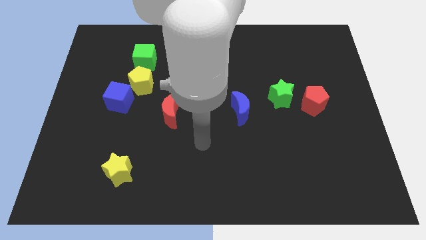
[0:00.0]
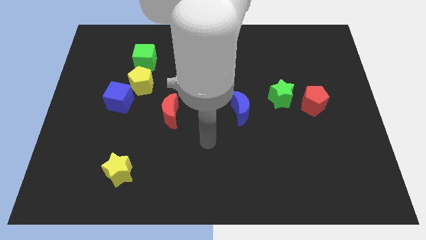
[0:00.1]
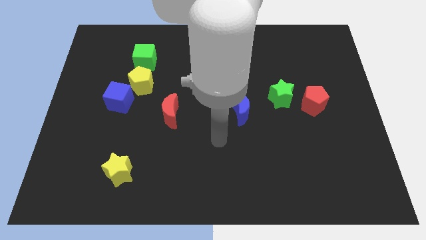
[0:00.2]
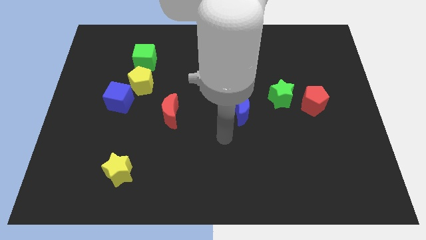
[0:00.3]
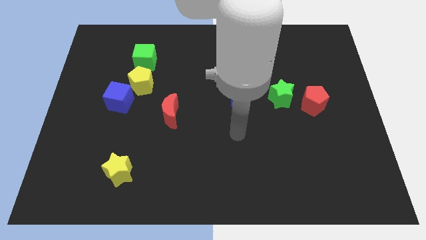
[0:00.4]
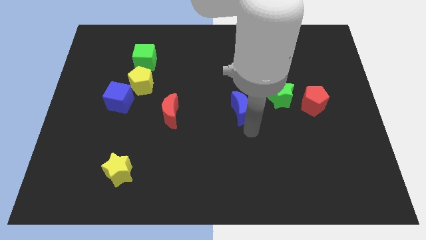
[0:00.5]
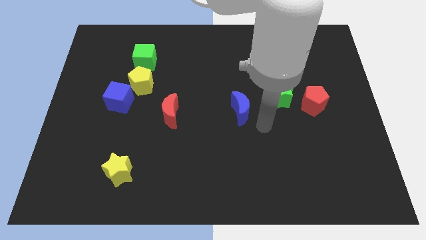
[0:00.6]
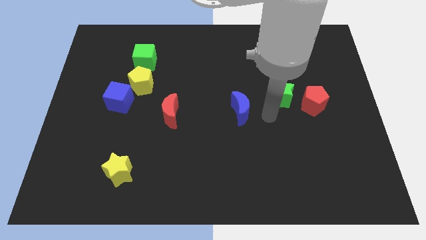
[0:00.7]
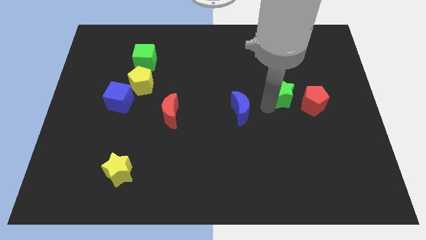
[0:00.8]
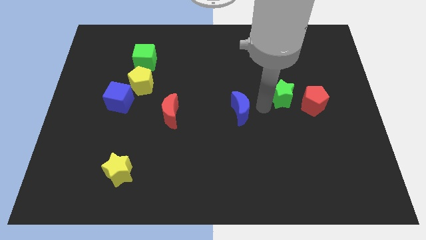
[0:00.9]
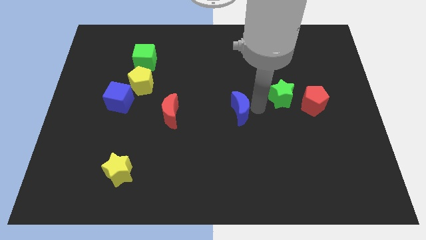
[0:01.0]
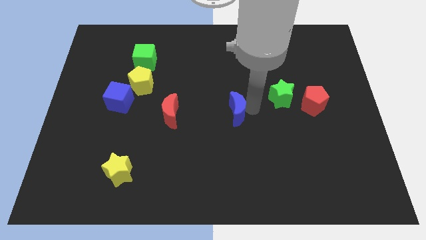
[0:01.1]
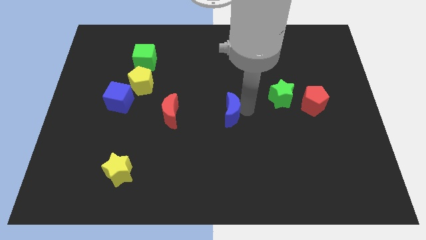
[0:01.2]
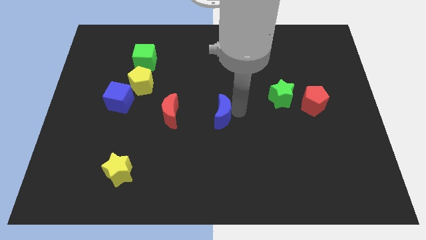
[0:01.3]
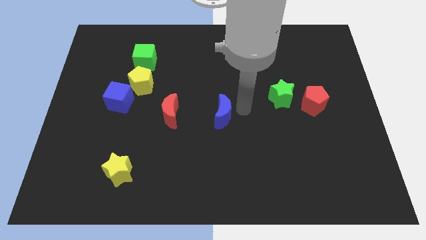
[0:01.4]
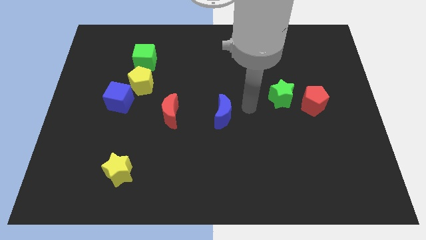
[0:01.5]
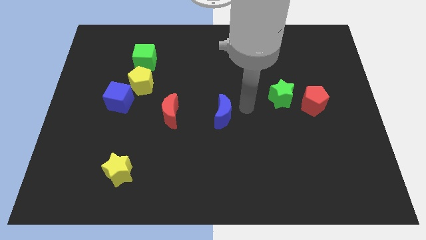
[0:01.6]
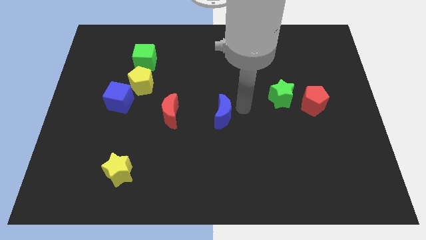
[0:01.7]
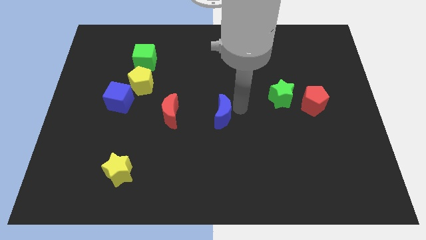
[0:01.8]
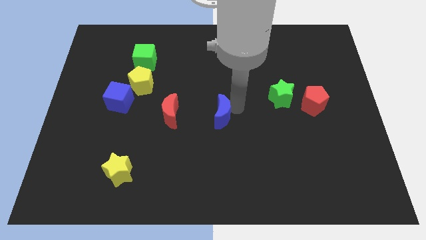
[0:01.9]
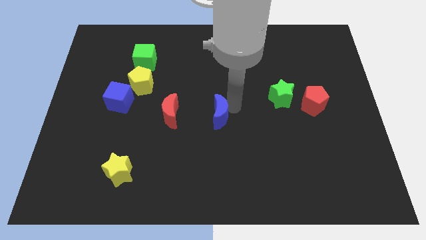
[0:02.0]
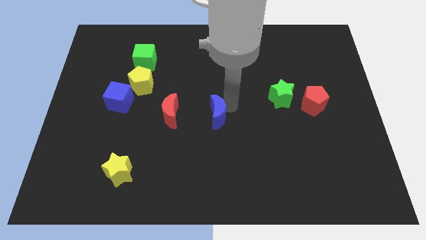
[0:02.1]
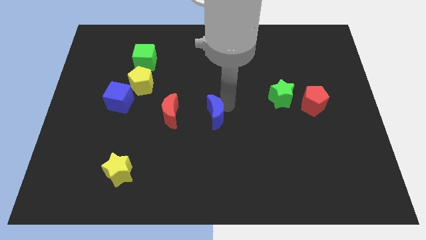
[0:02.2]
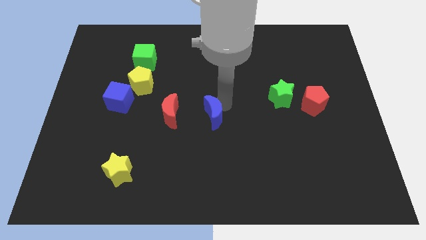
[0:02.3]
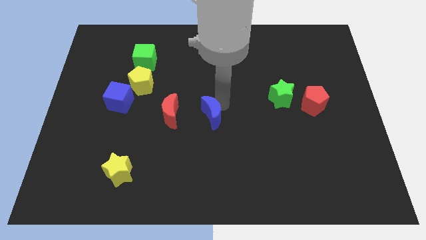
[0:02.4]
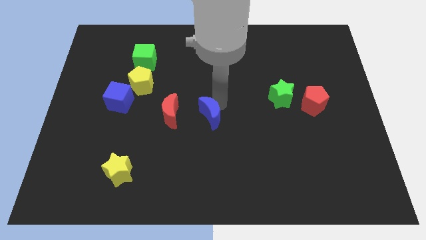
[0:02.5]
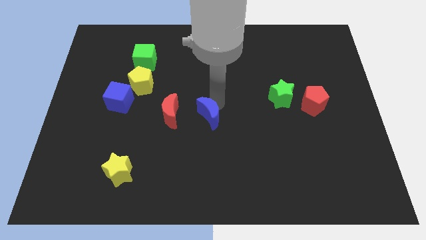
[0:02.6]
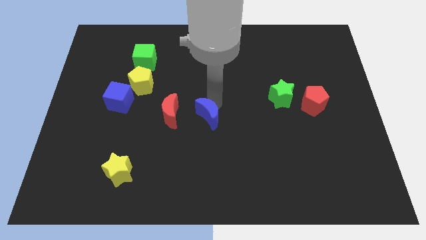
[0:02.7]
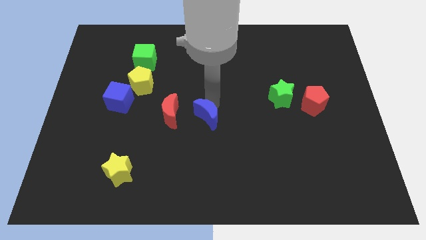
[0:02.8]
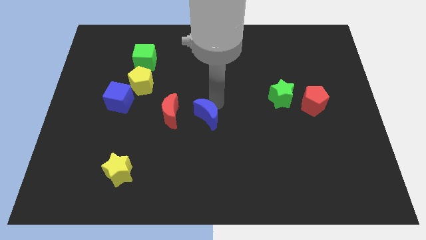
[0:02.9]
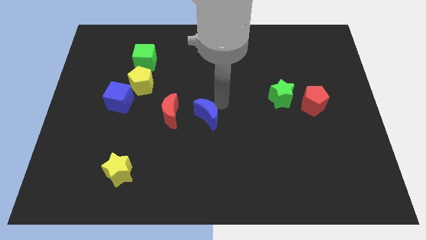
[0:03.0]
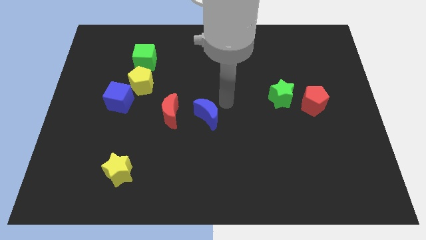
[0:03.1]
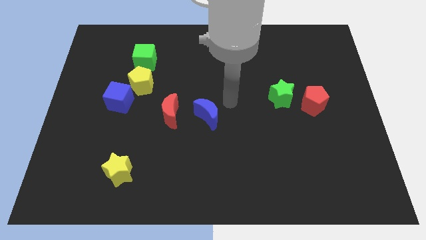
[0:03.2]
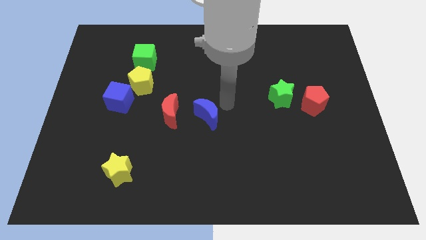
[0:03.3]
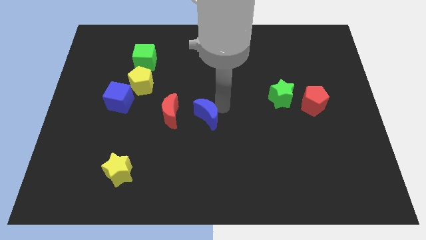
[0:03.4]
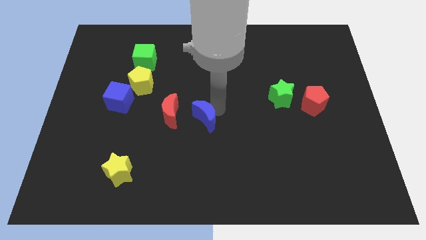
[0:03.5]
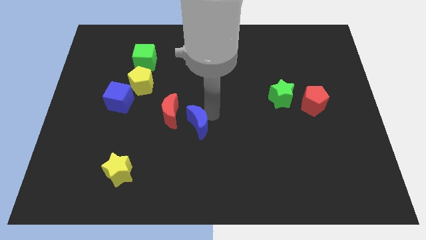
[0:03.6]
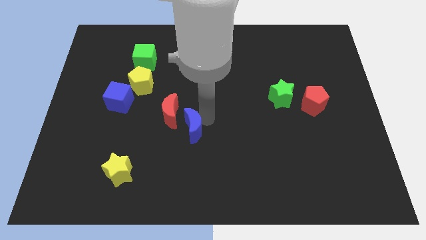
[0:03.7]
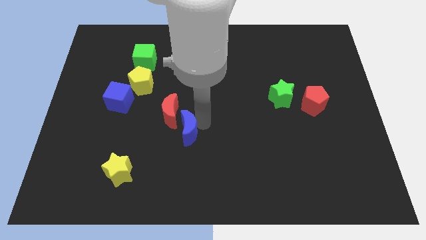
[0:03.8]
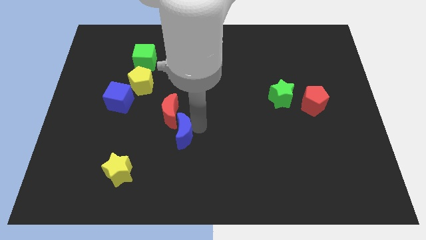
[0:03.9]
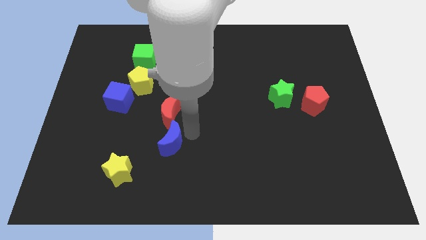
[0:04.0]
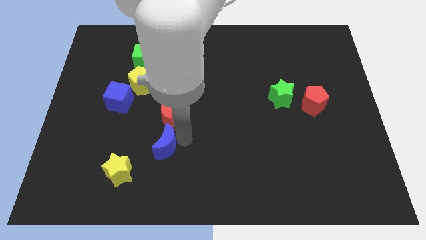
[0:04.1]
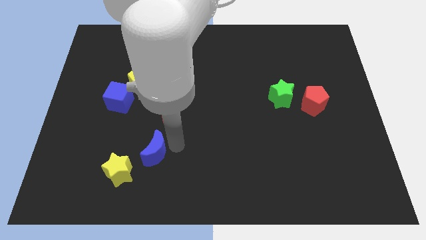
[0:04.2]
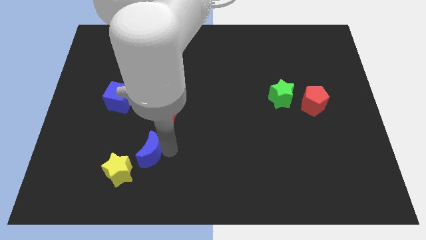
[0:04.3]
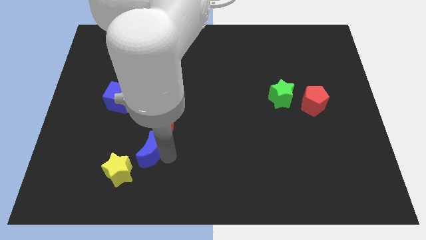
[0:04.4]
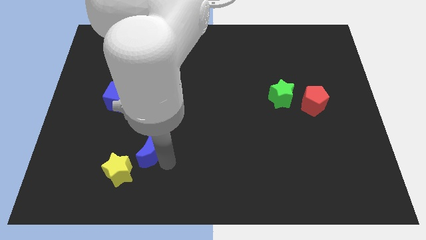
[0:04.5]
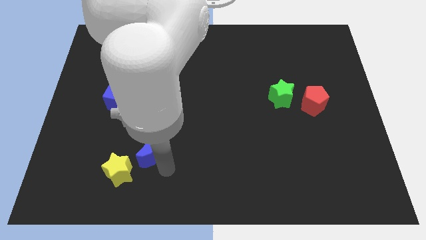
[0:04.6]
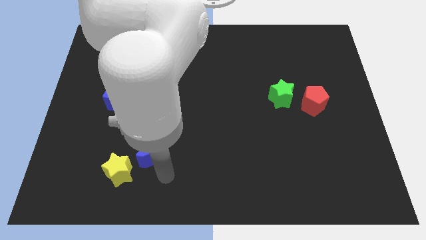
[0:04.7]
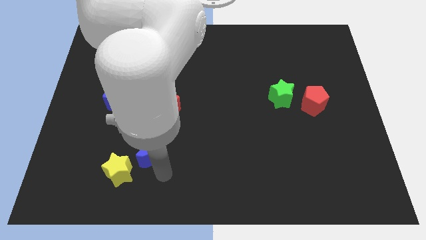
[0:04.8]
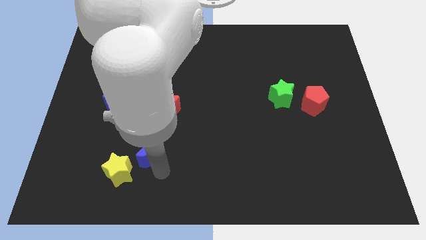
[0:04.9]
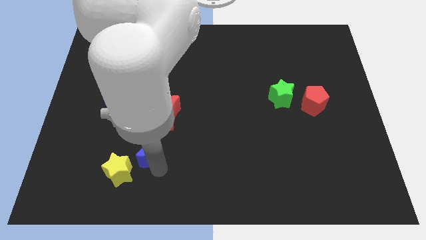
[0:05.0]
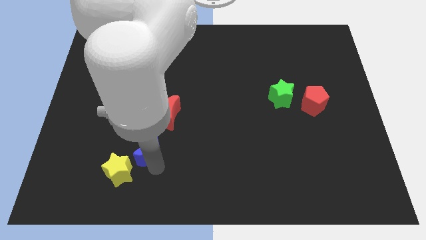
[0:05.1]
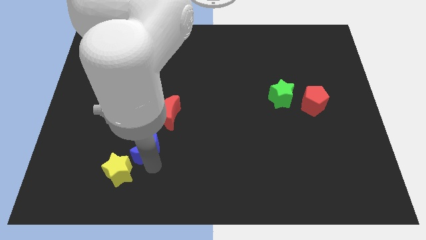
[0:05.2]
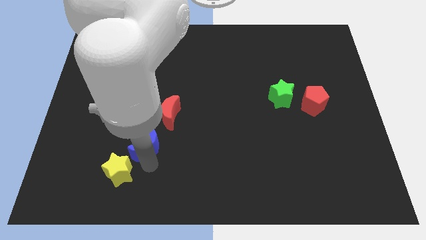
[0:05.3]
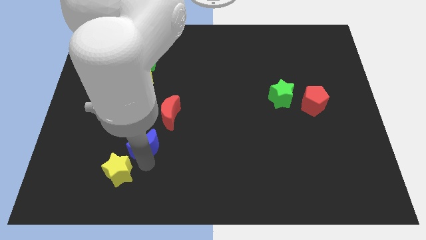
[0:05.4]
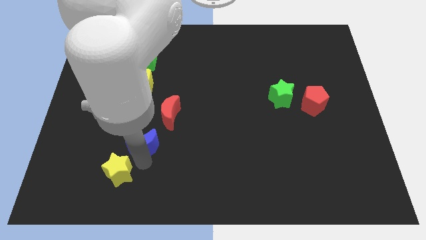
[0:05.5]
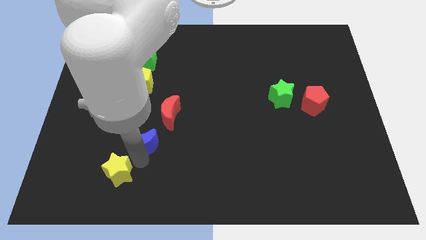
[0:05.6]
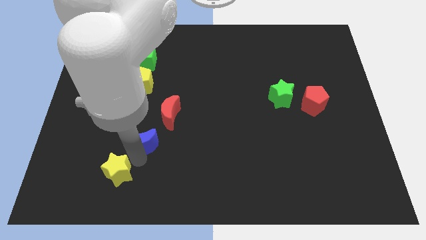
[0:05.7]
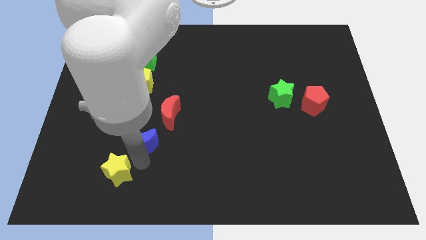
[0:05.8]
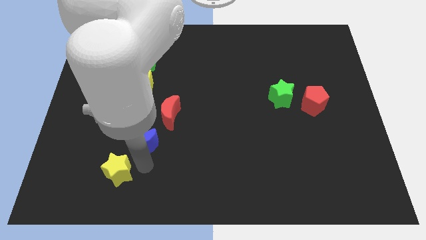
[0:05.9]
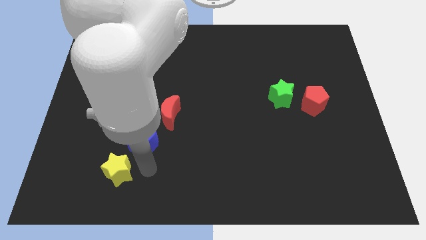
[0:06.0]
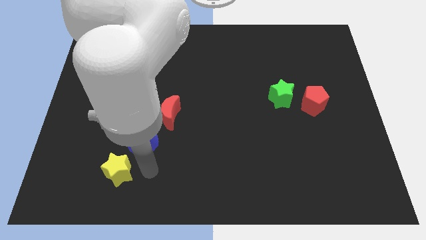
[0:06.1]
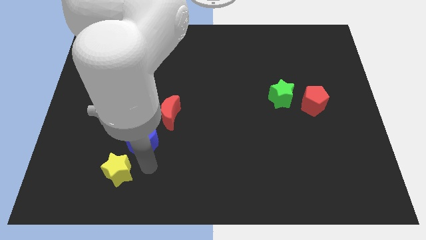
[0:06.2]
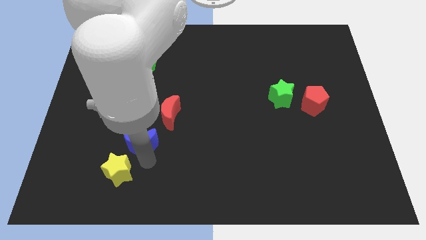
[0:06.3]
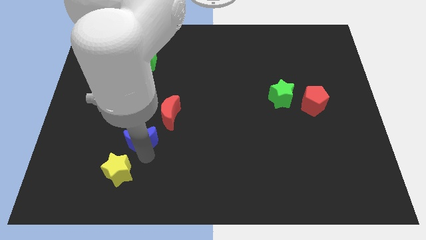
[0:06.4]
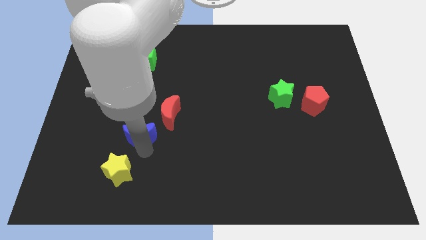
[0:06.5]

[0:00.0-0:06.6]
push the blue moon left

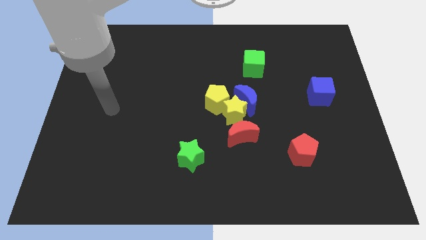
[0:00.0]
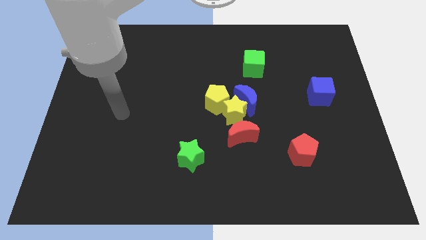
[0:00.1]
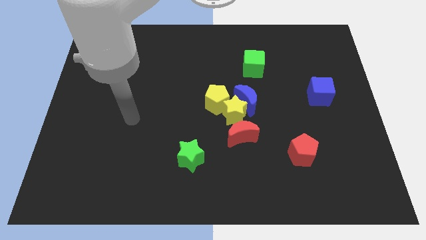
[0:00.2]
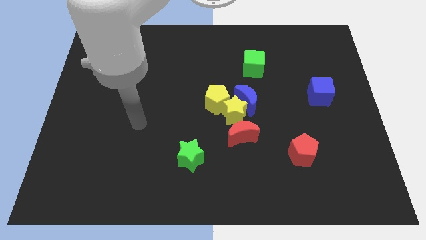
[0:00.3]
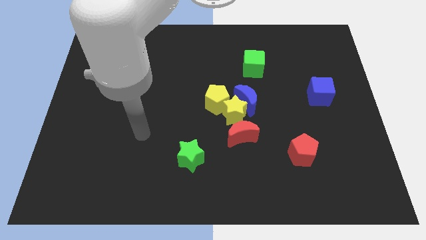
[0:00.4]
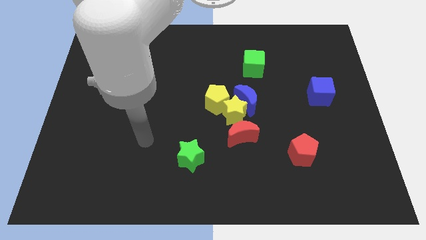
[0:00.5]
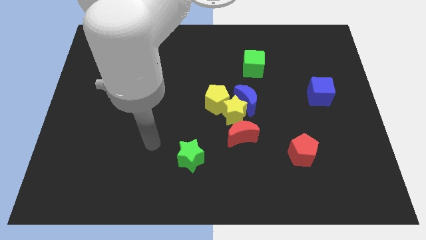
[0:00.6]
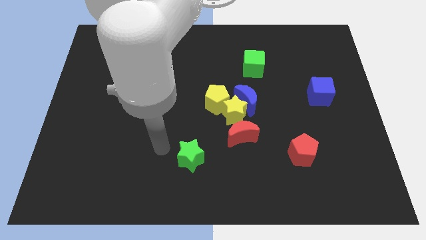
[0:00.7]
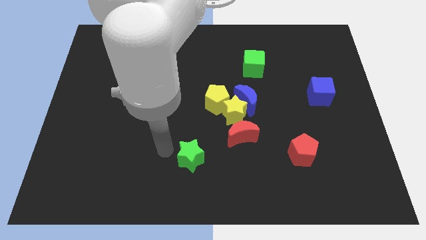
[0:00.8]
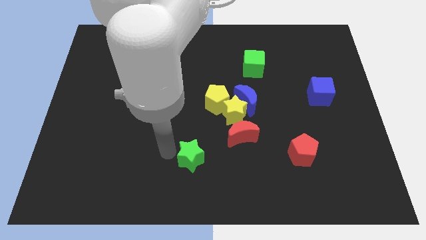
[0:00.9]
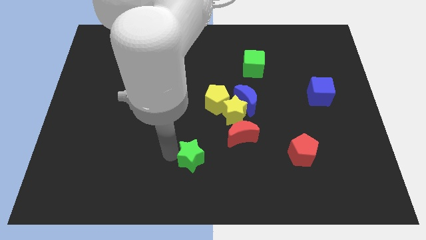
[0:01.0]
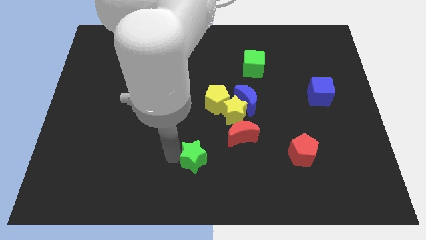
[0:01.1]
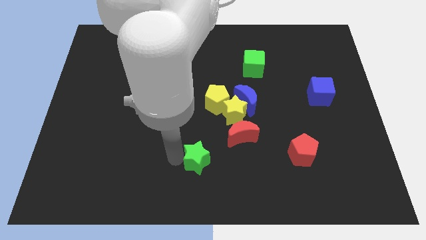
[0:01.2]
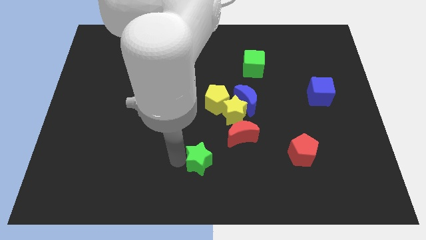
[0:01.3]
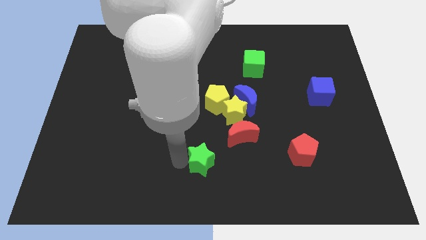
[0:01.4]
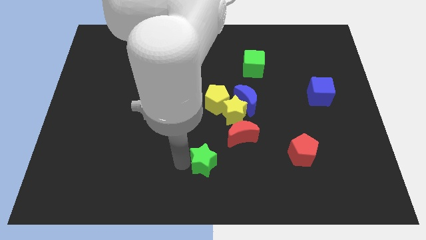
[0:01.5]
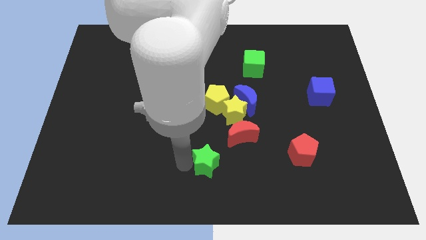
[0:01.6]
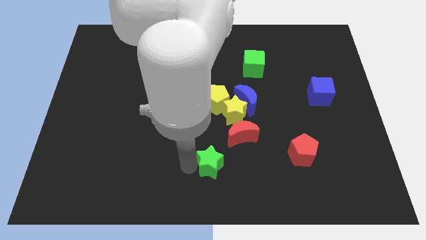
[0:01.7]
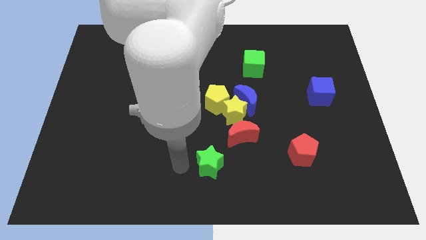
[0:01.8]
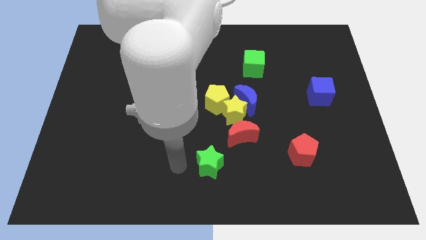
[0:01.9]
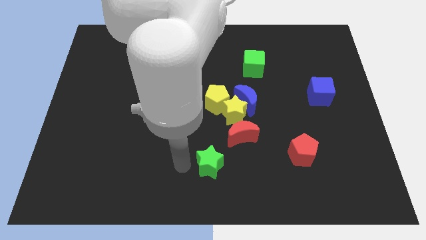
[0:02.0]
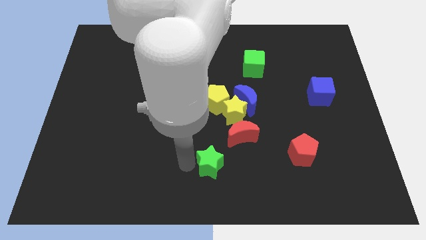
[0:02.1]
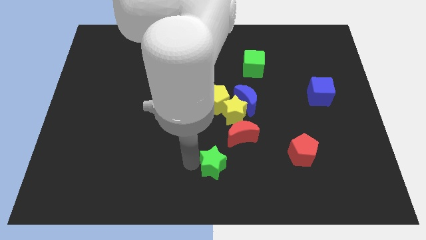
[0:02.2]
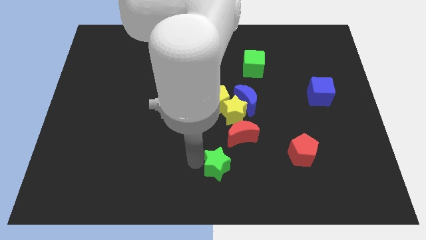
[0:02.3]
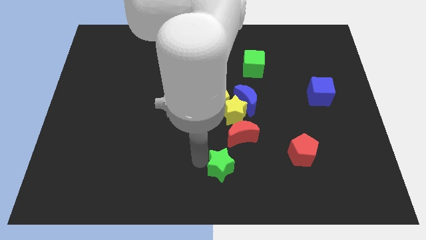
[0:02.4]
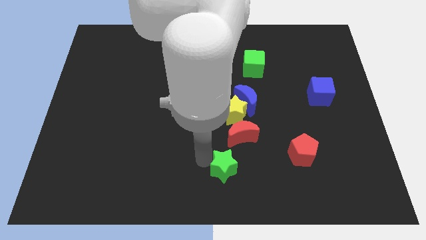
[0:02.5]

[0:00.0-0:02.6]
slightly slide the green star to the right
